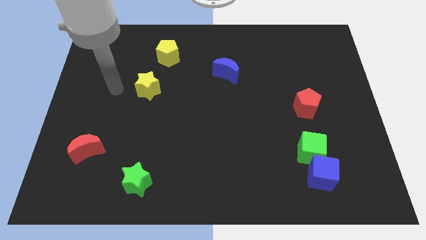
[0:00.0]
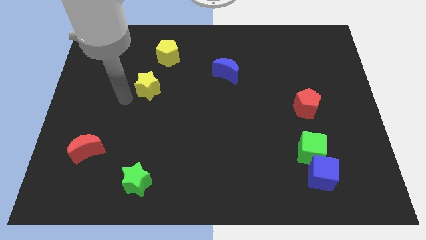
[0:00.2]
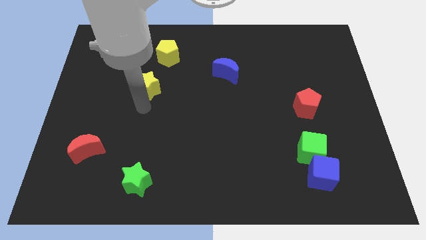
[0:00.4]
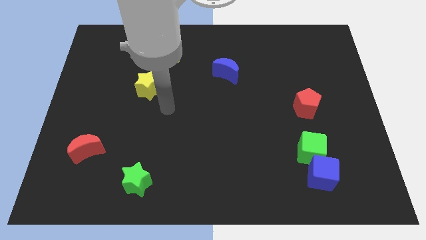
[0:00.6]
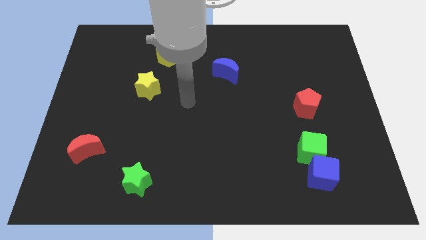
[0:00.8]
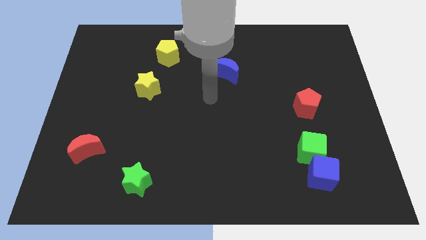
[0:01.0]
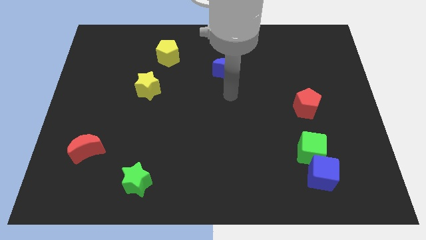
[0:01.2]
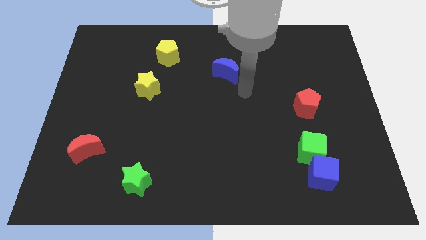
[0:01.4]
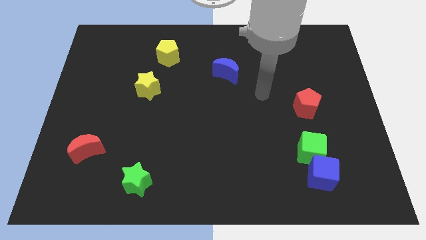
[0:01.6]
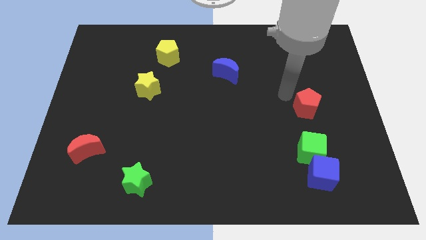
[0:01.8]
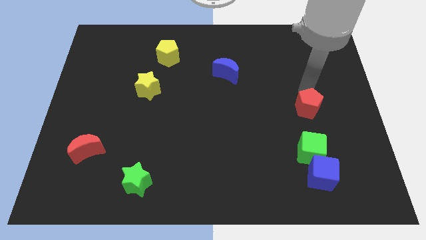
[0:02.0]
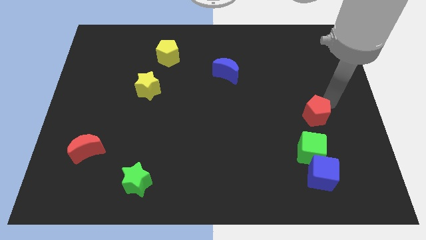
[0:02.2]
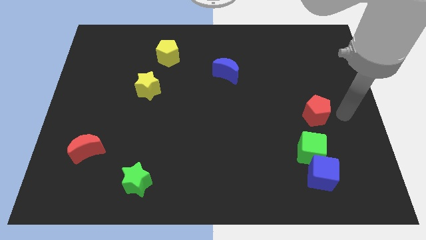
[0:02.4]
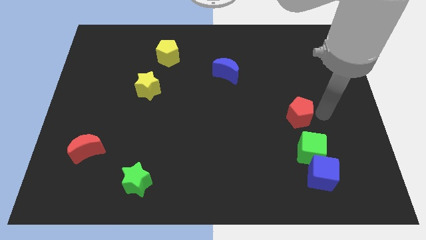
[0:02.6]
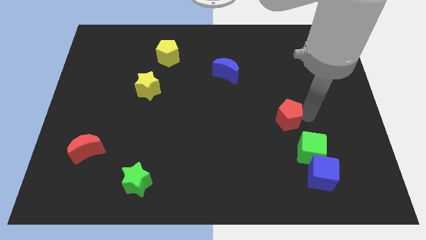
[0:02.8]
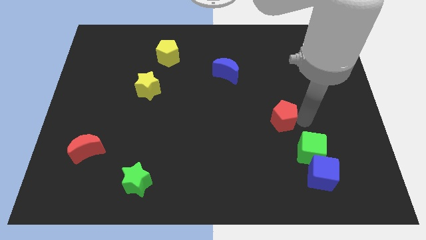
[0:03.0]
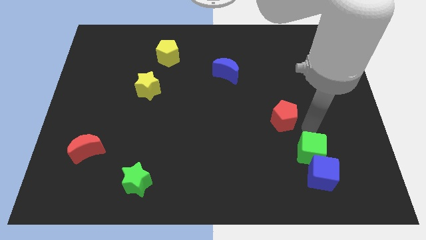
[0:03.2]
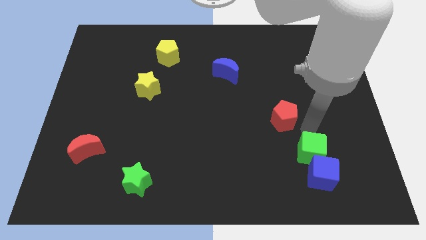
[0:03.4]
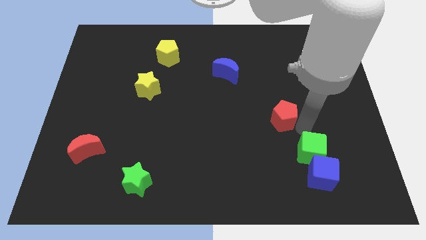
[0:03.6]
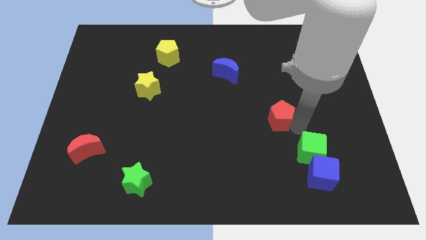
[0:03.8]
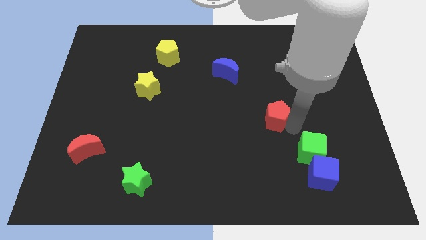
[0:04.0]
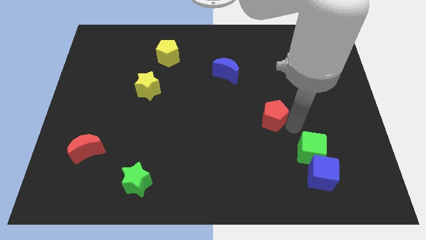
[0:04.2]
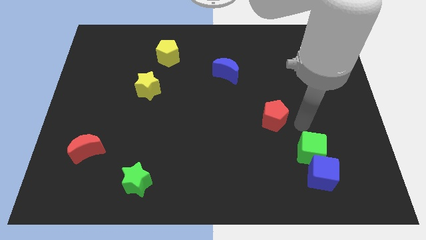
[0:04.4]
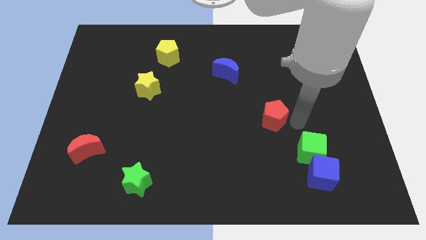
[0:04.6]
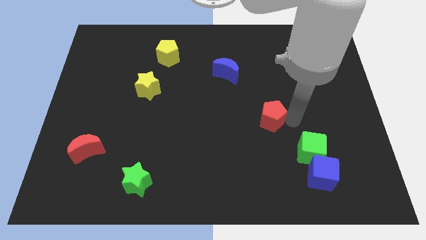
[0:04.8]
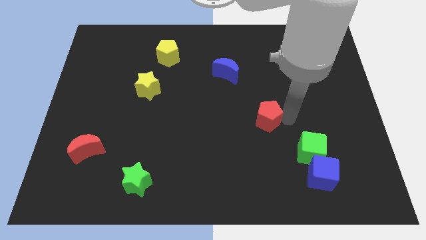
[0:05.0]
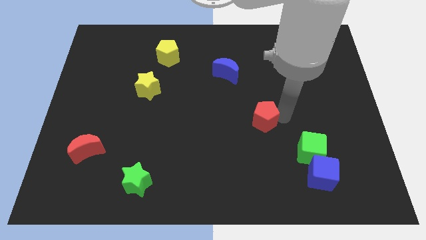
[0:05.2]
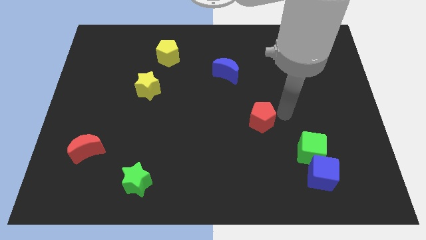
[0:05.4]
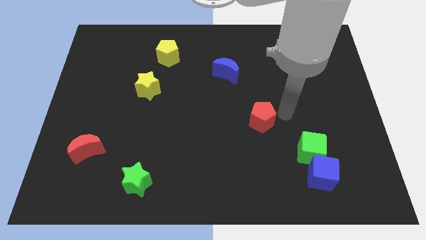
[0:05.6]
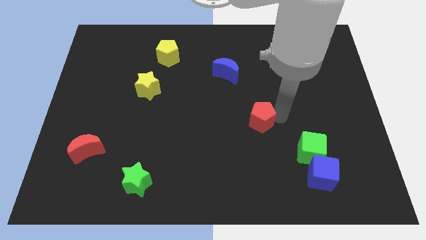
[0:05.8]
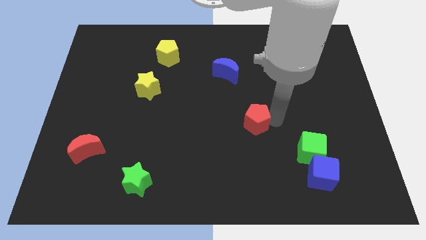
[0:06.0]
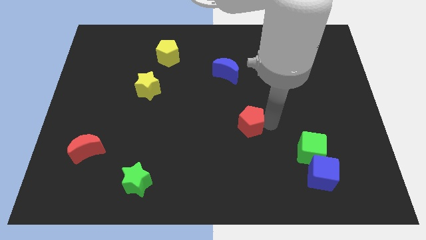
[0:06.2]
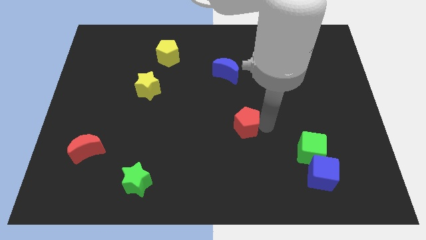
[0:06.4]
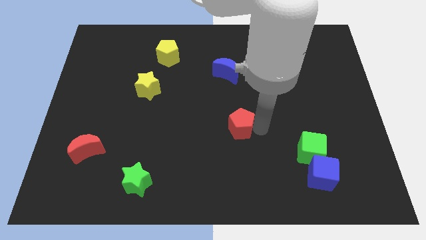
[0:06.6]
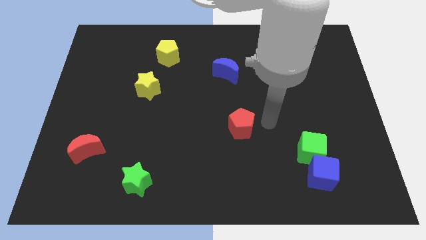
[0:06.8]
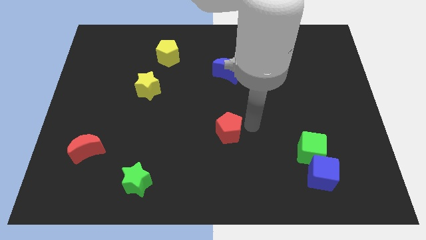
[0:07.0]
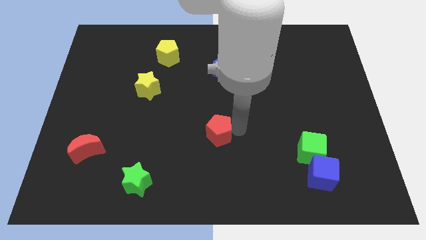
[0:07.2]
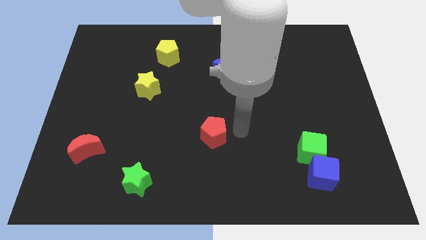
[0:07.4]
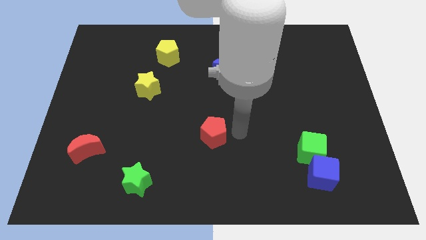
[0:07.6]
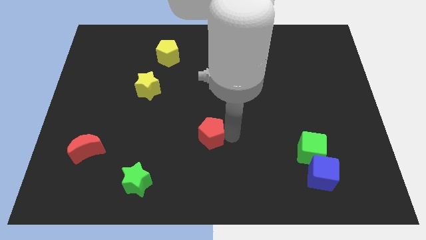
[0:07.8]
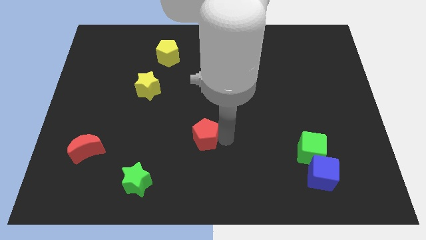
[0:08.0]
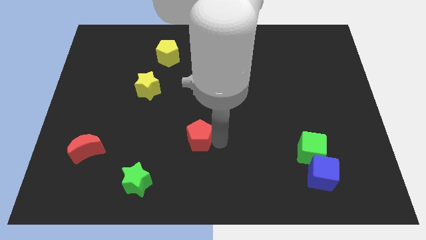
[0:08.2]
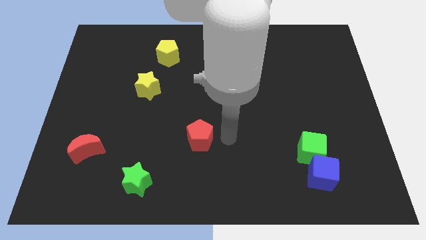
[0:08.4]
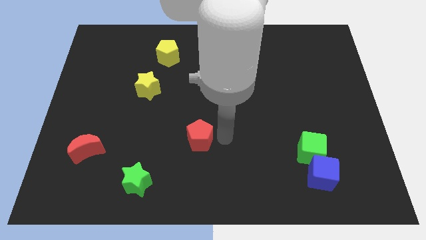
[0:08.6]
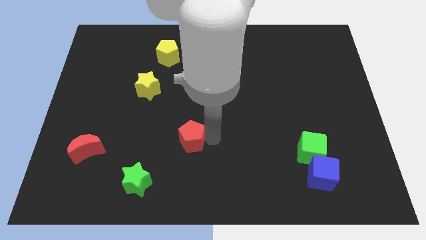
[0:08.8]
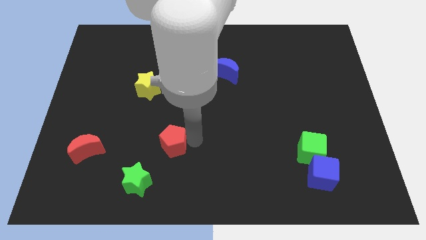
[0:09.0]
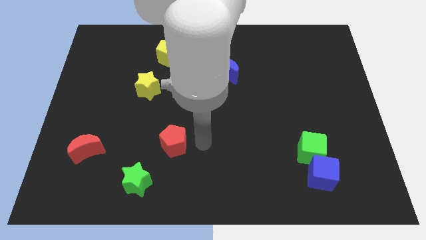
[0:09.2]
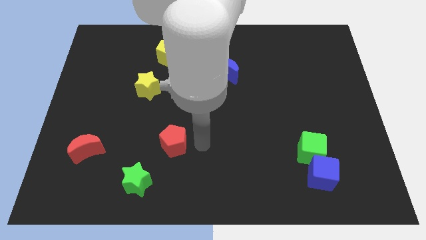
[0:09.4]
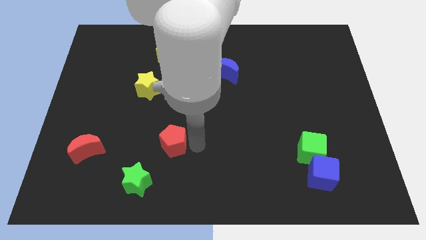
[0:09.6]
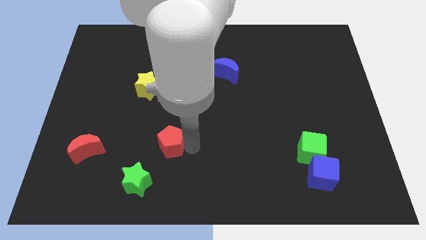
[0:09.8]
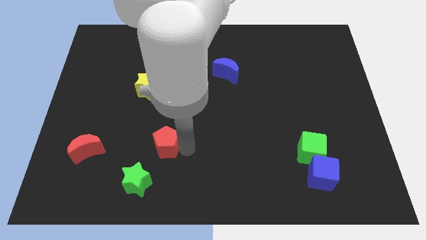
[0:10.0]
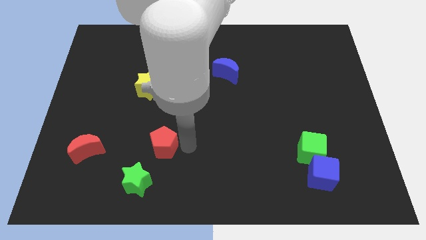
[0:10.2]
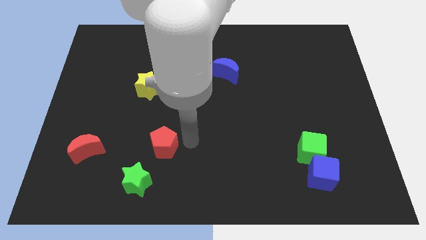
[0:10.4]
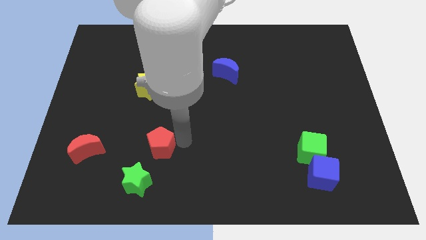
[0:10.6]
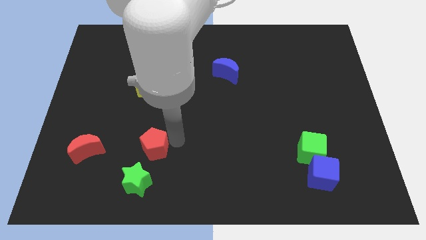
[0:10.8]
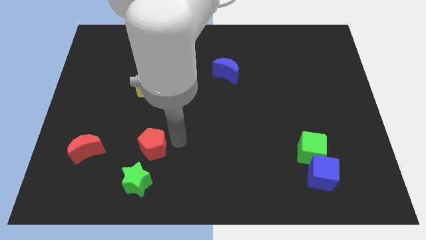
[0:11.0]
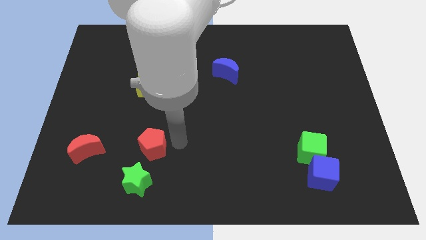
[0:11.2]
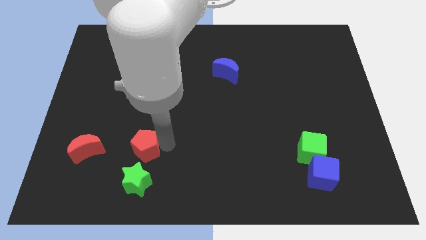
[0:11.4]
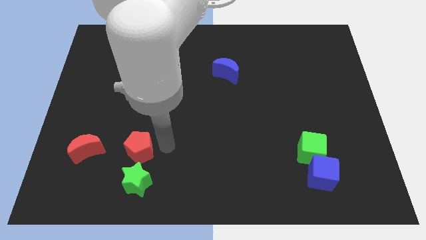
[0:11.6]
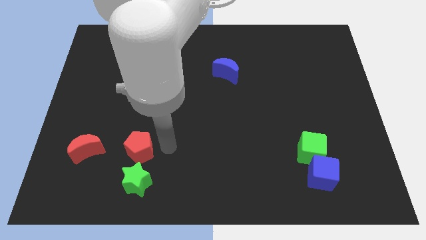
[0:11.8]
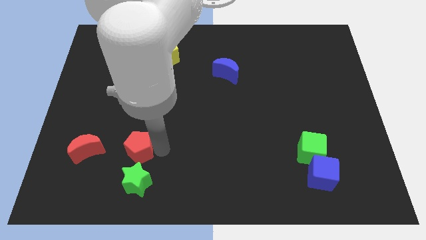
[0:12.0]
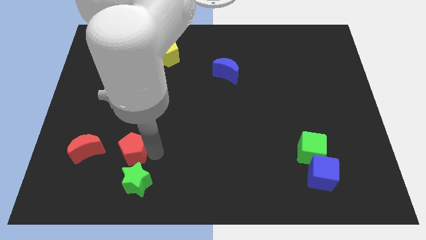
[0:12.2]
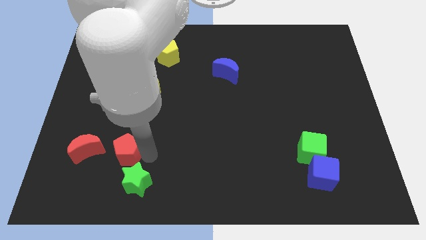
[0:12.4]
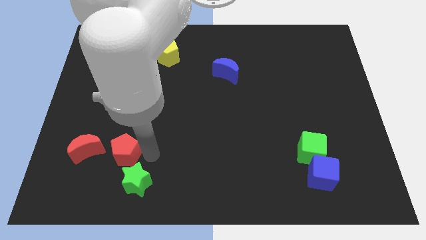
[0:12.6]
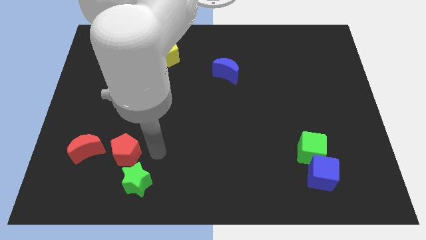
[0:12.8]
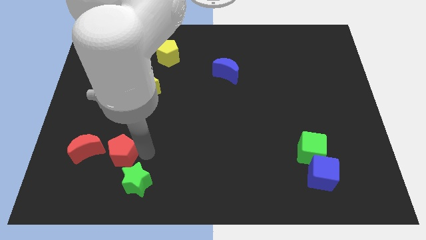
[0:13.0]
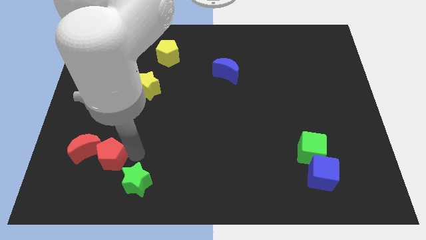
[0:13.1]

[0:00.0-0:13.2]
slide the red pentagon to the red moon
